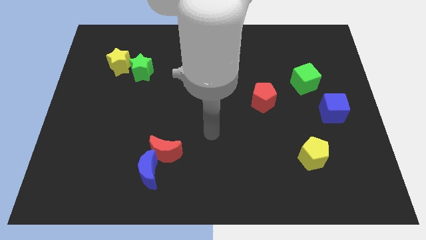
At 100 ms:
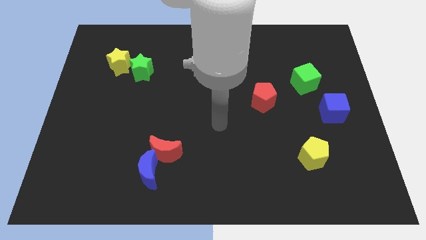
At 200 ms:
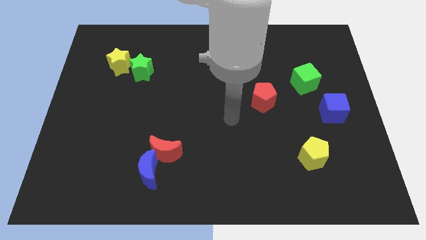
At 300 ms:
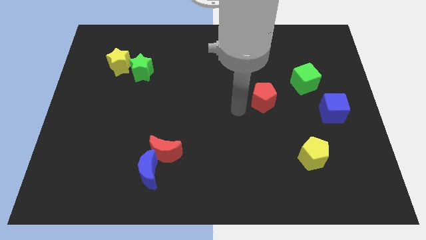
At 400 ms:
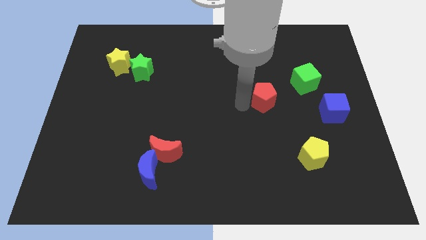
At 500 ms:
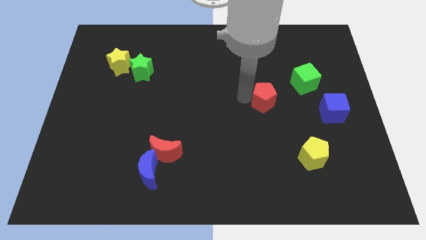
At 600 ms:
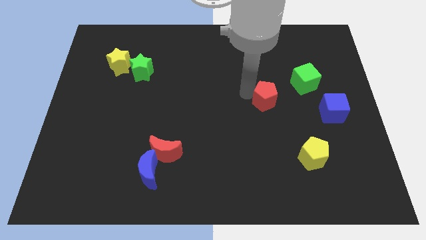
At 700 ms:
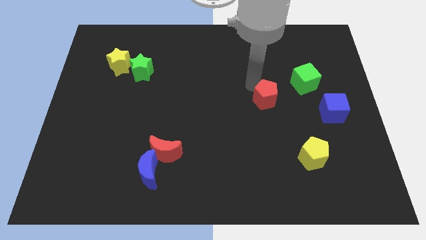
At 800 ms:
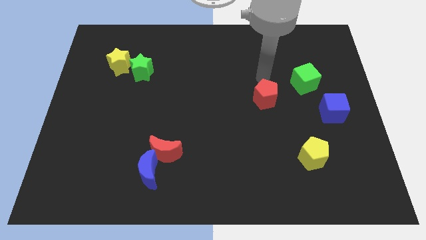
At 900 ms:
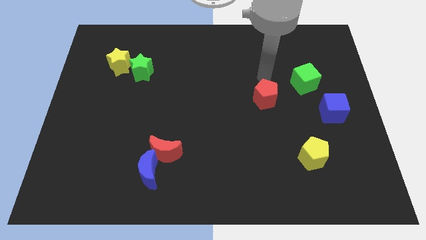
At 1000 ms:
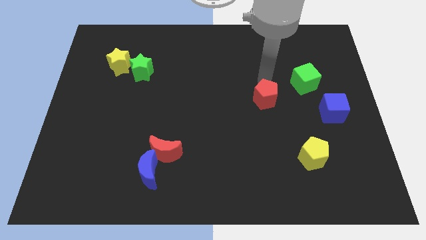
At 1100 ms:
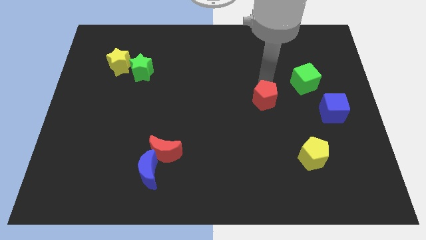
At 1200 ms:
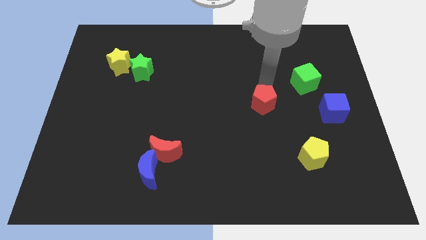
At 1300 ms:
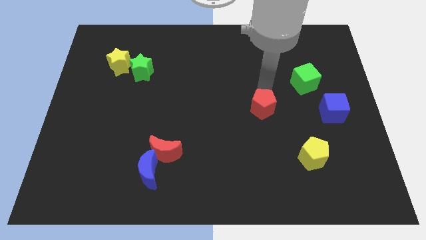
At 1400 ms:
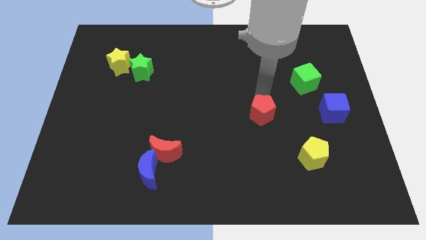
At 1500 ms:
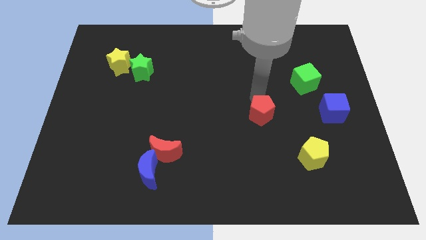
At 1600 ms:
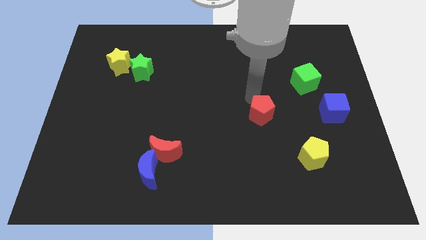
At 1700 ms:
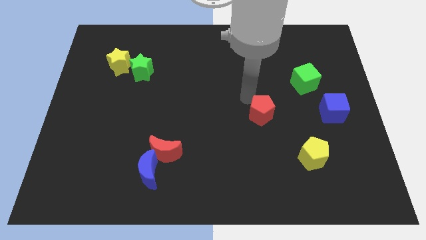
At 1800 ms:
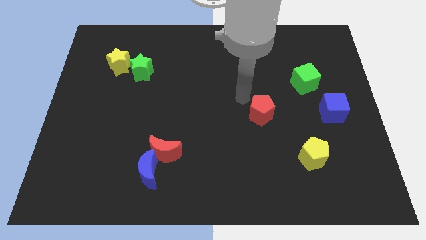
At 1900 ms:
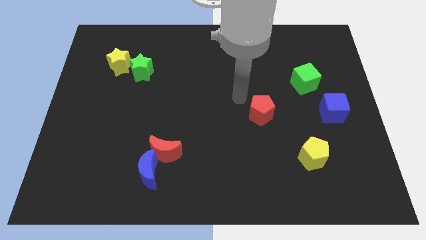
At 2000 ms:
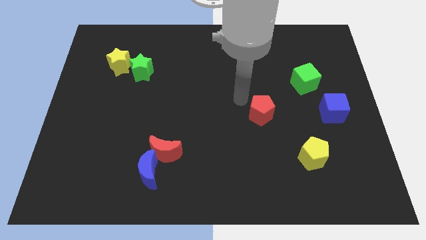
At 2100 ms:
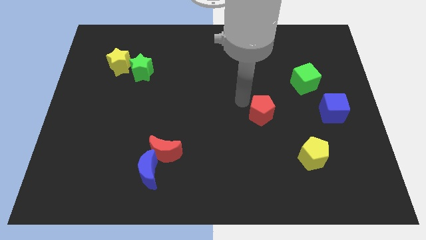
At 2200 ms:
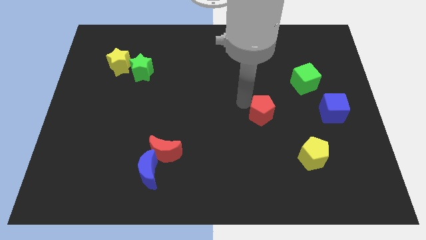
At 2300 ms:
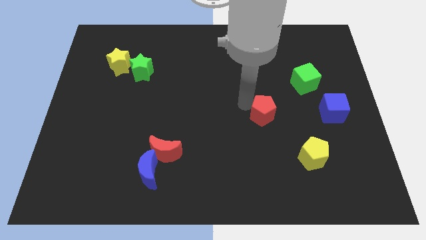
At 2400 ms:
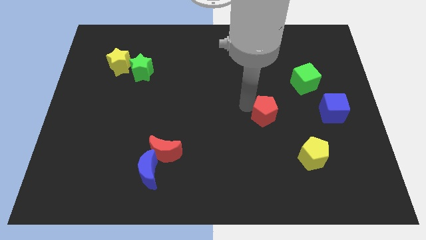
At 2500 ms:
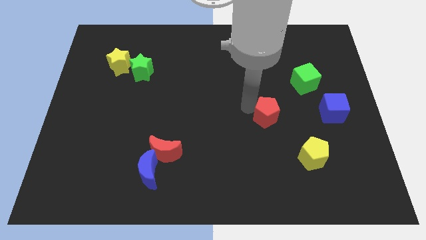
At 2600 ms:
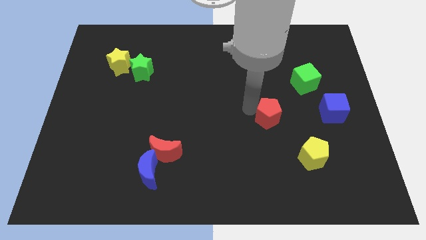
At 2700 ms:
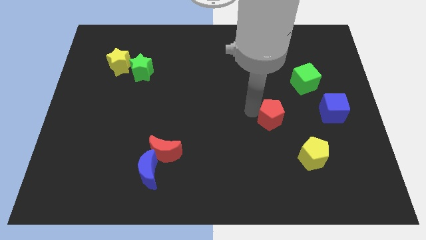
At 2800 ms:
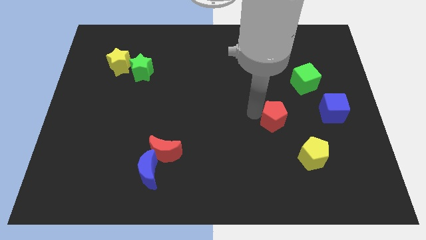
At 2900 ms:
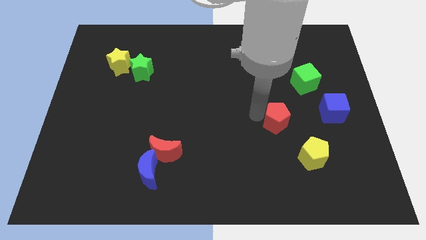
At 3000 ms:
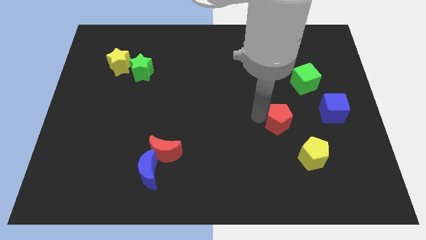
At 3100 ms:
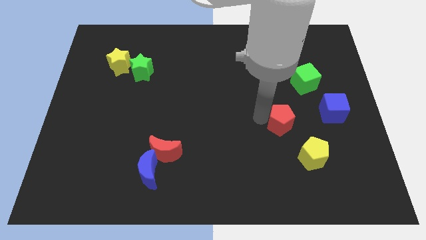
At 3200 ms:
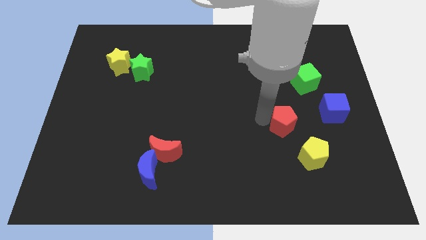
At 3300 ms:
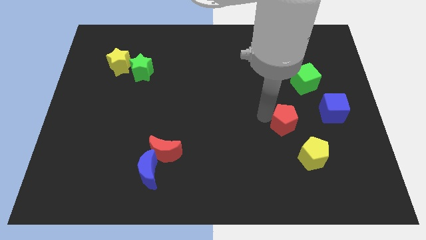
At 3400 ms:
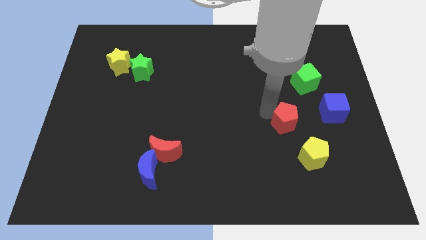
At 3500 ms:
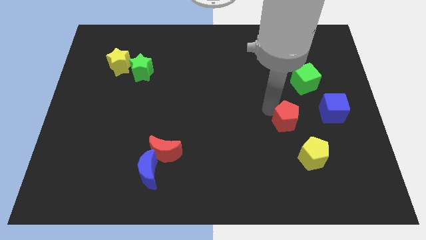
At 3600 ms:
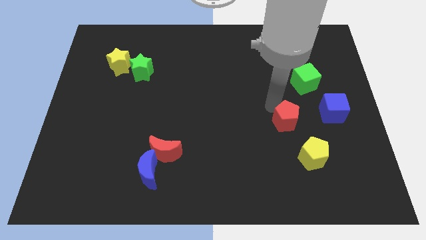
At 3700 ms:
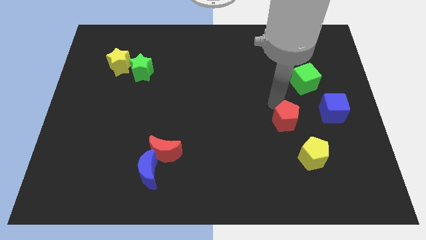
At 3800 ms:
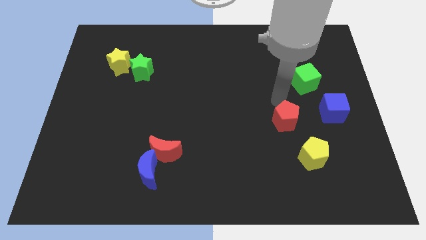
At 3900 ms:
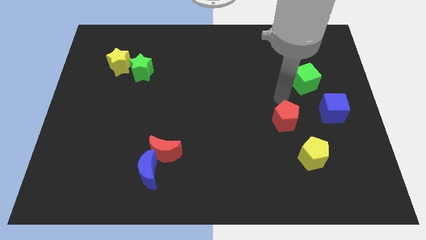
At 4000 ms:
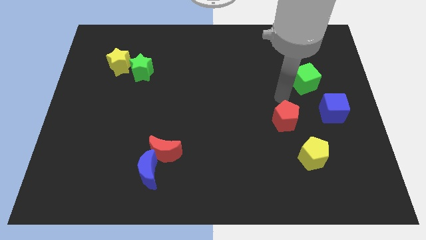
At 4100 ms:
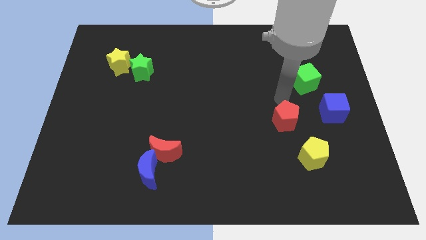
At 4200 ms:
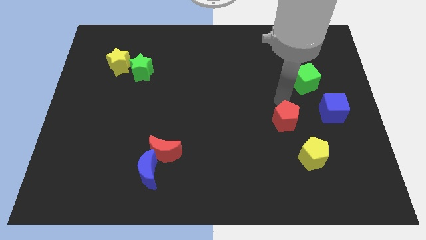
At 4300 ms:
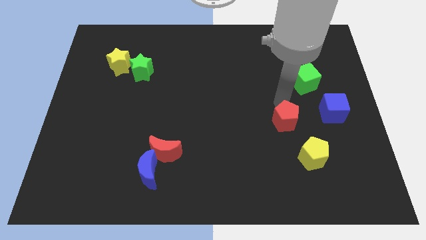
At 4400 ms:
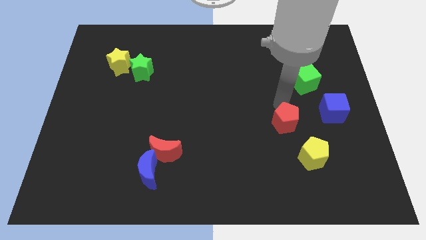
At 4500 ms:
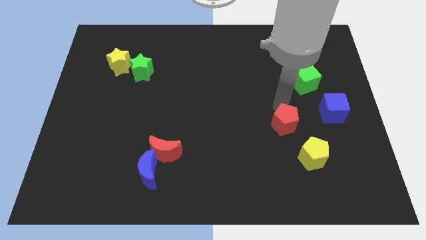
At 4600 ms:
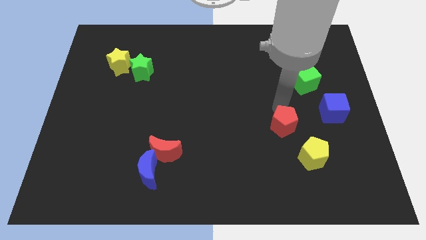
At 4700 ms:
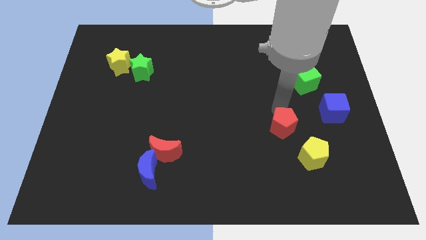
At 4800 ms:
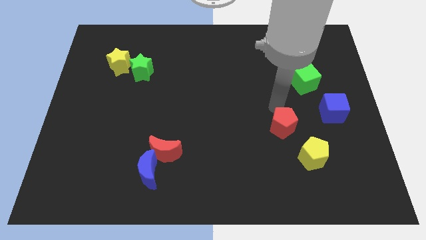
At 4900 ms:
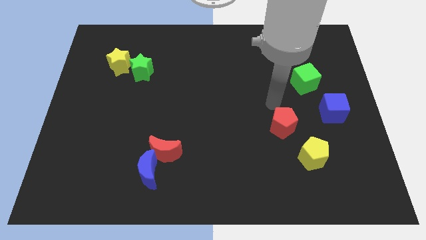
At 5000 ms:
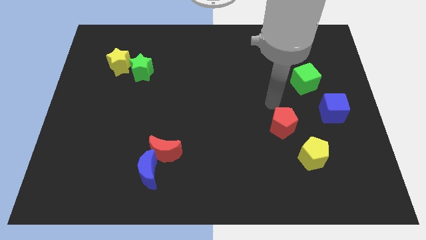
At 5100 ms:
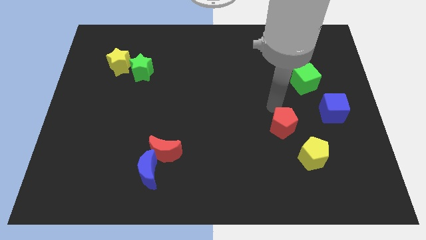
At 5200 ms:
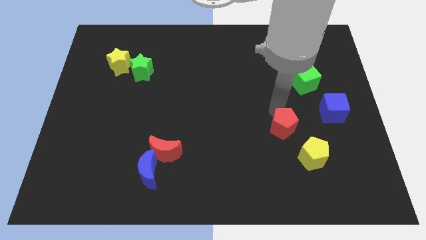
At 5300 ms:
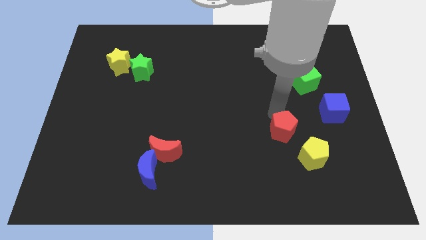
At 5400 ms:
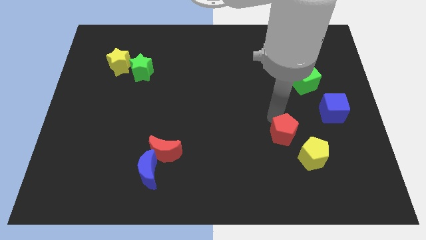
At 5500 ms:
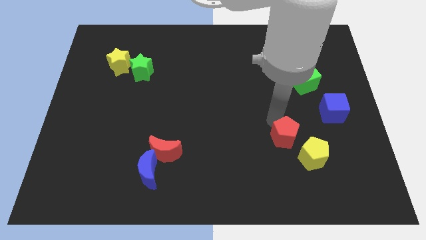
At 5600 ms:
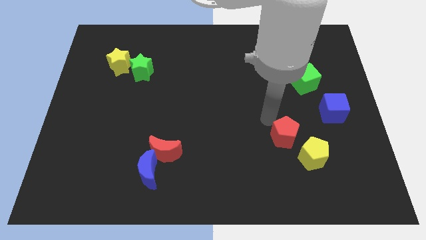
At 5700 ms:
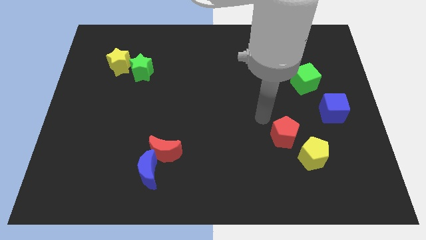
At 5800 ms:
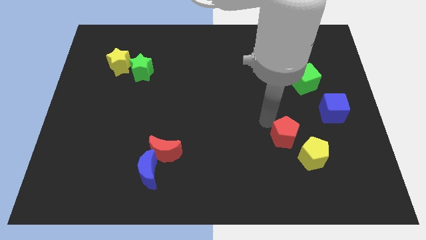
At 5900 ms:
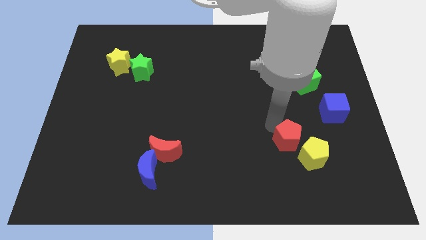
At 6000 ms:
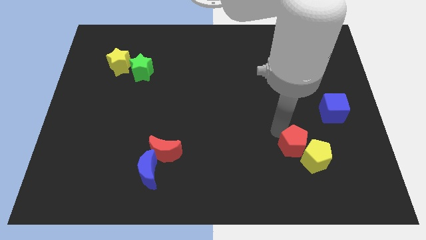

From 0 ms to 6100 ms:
slide the red pentagon next to the yellow pentagon

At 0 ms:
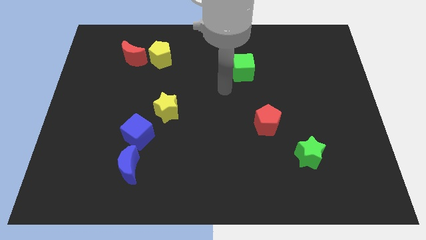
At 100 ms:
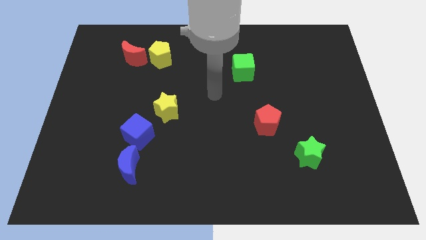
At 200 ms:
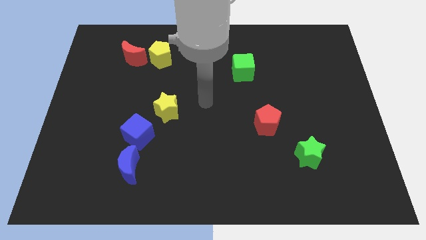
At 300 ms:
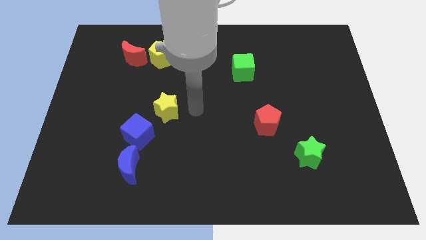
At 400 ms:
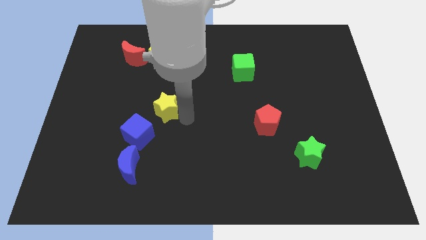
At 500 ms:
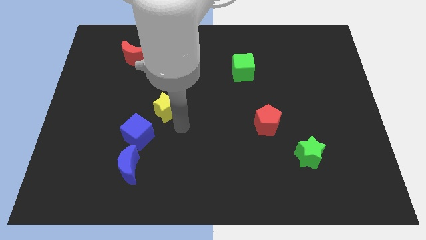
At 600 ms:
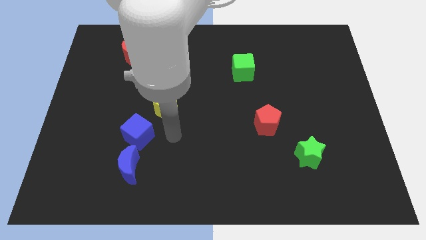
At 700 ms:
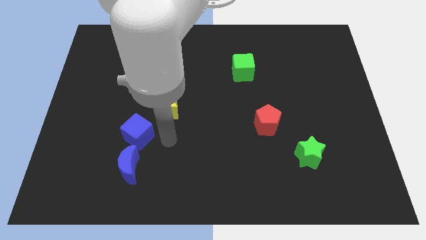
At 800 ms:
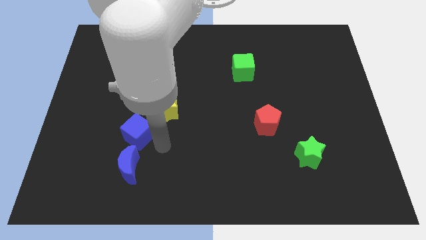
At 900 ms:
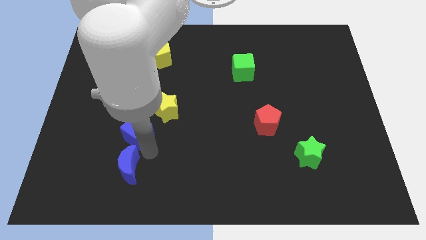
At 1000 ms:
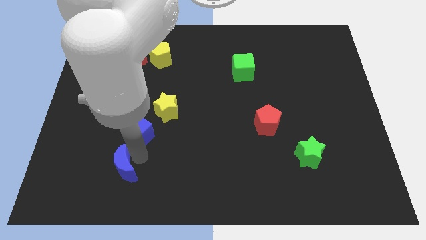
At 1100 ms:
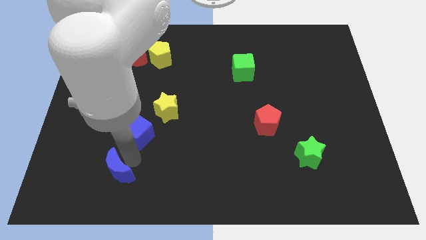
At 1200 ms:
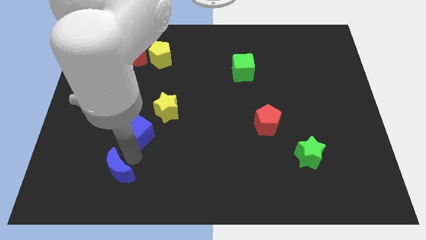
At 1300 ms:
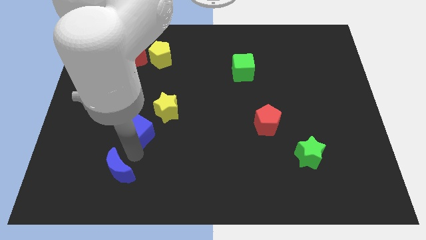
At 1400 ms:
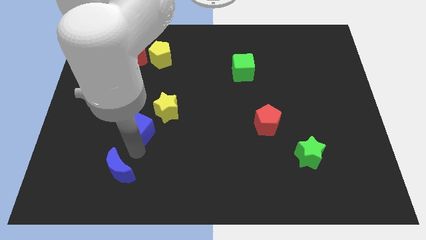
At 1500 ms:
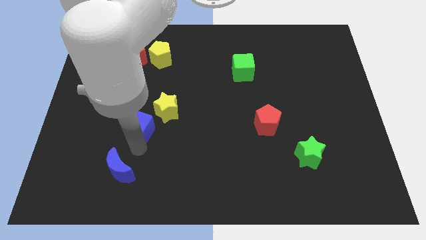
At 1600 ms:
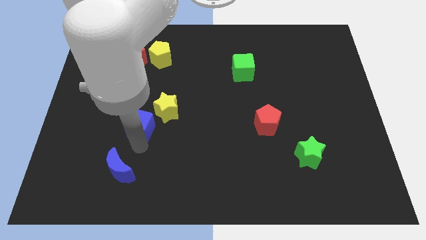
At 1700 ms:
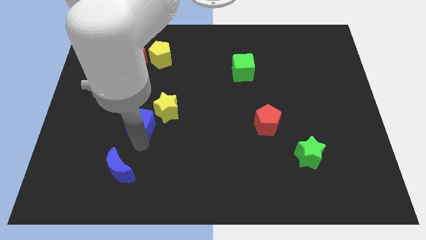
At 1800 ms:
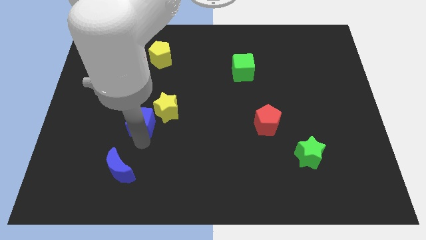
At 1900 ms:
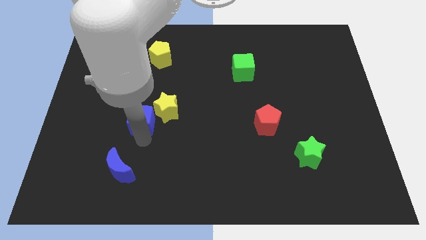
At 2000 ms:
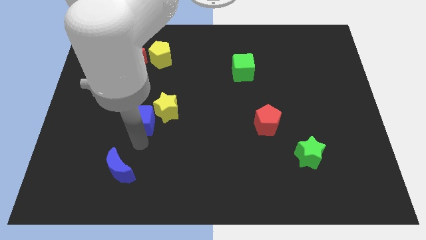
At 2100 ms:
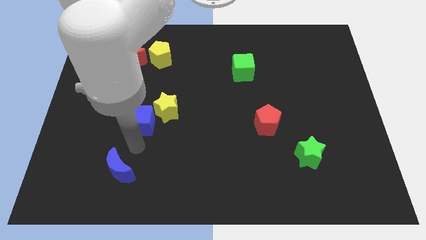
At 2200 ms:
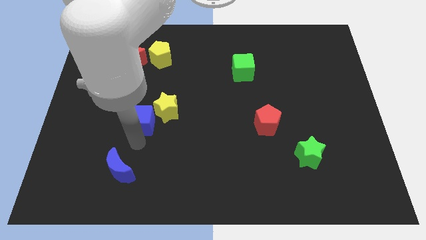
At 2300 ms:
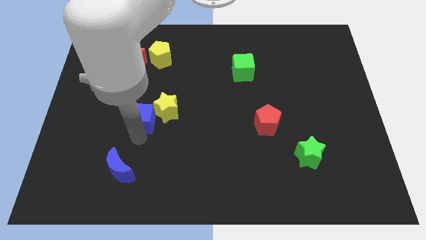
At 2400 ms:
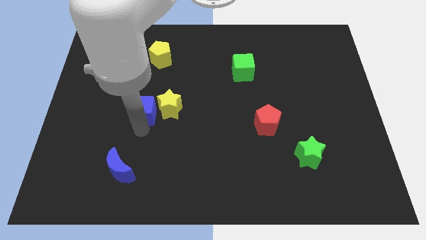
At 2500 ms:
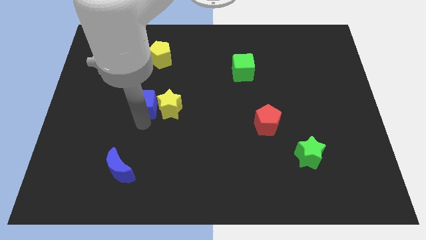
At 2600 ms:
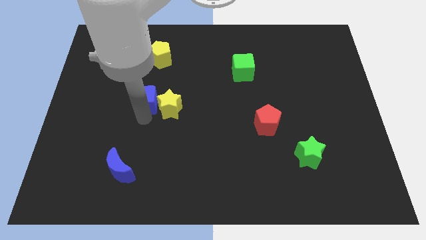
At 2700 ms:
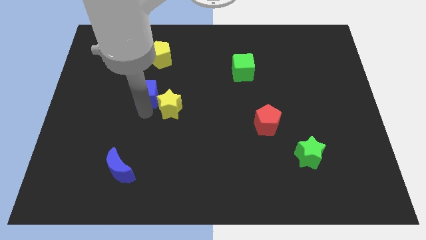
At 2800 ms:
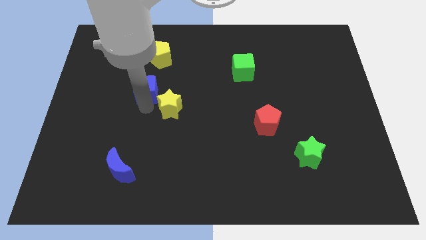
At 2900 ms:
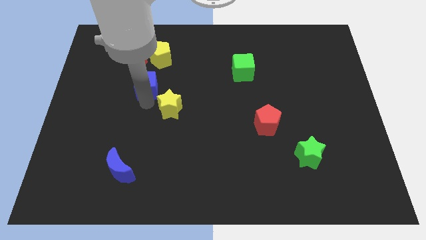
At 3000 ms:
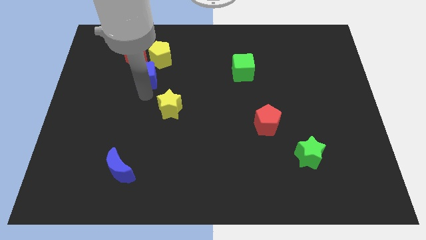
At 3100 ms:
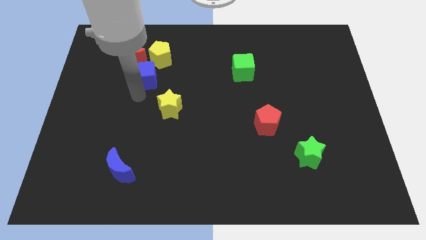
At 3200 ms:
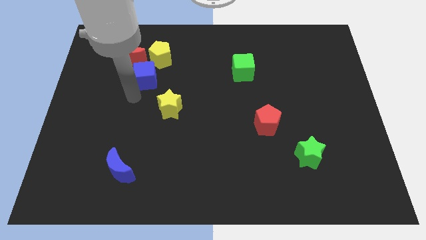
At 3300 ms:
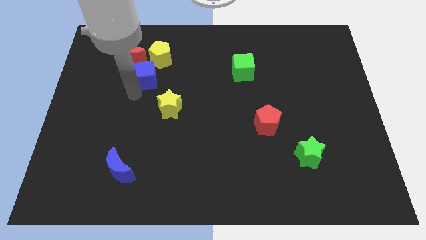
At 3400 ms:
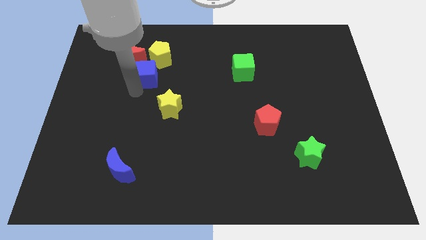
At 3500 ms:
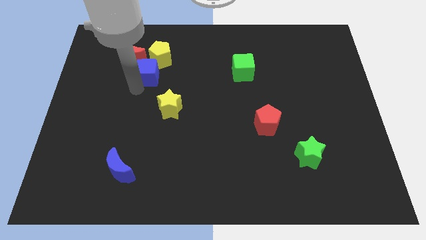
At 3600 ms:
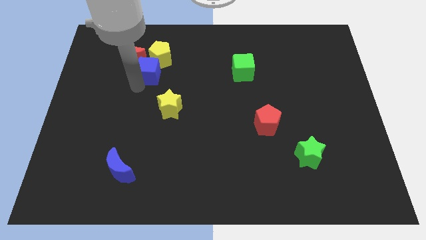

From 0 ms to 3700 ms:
move the blue cube towards the yellow pentagon
